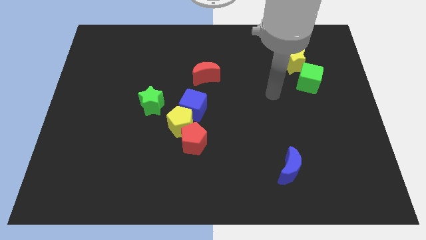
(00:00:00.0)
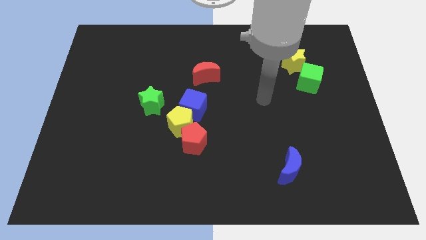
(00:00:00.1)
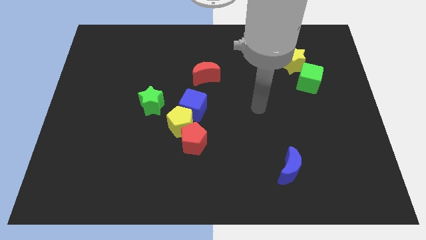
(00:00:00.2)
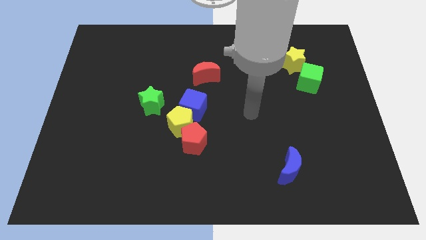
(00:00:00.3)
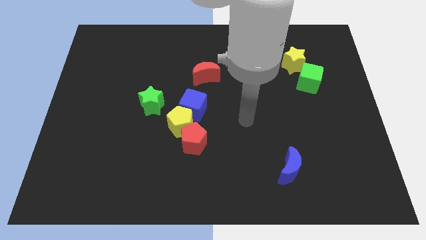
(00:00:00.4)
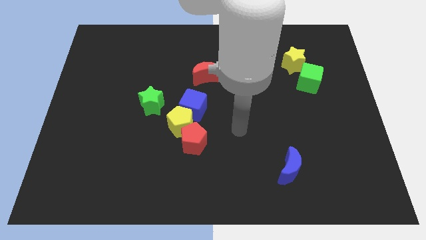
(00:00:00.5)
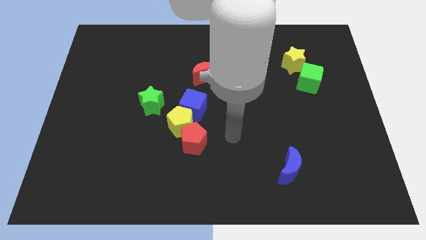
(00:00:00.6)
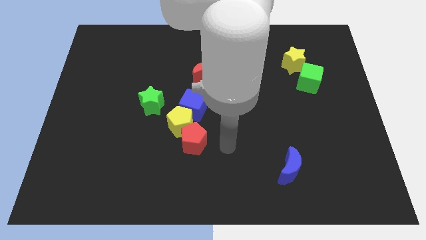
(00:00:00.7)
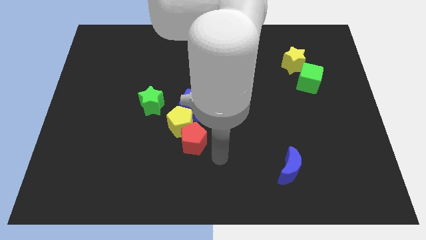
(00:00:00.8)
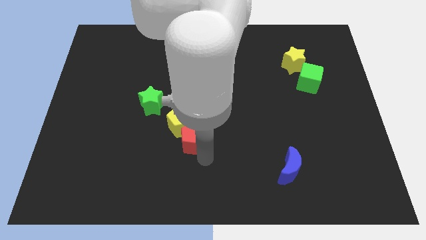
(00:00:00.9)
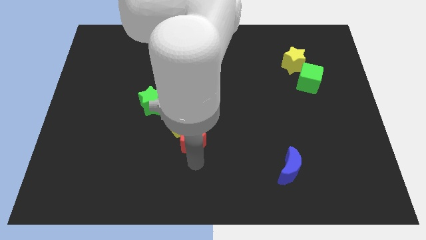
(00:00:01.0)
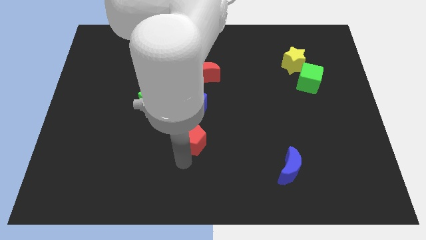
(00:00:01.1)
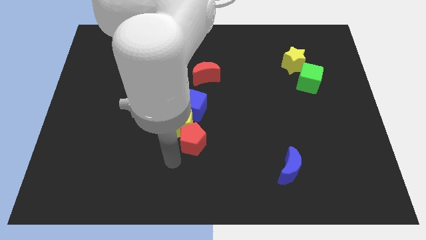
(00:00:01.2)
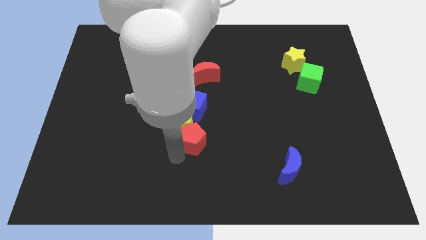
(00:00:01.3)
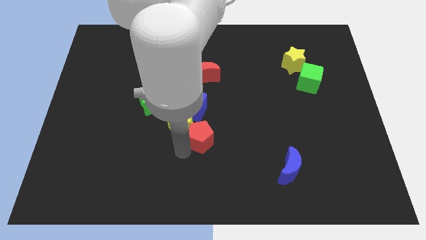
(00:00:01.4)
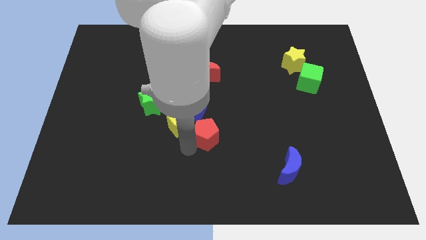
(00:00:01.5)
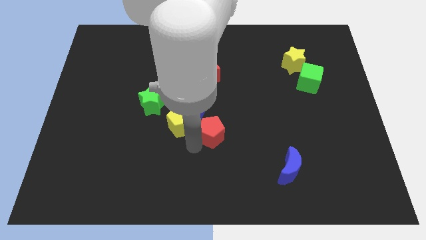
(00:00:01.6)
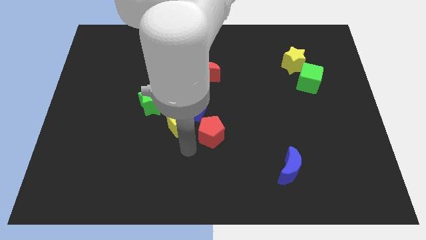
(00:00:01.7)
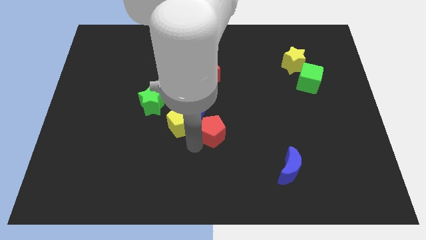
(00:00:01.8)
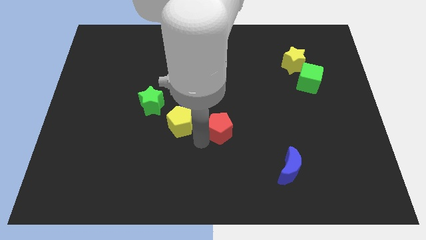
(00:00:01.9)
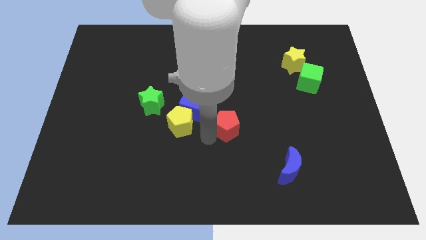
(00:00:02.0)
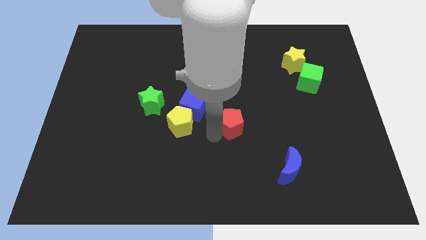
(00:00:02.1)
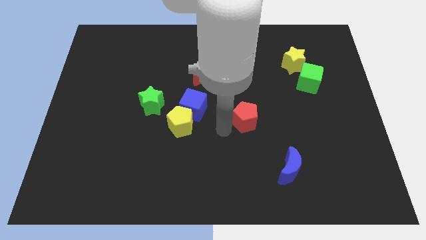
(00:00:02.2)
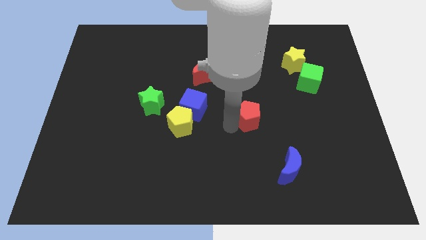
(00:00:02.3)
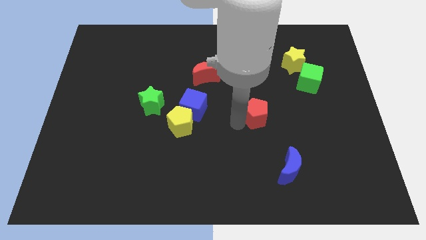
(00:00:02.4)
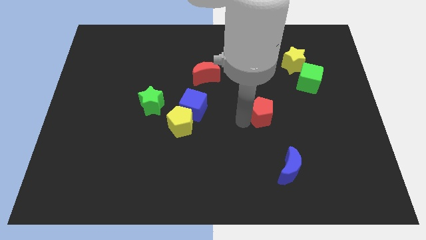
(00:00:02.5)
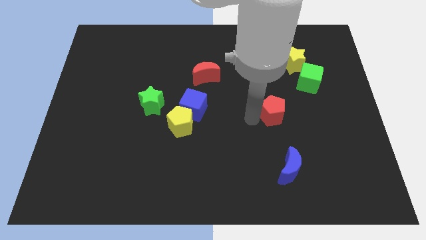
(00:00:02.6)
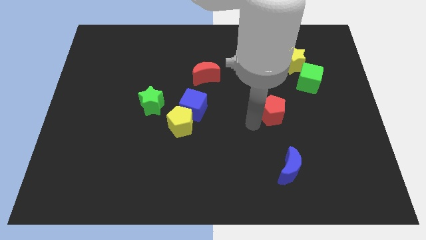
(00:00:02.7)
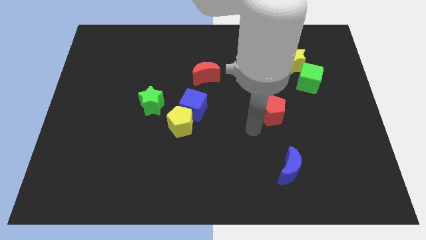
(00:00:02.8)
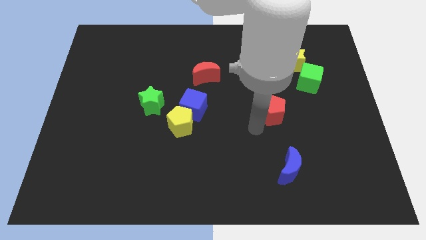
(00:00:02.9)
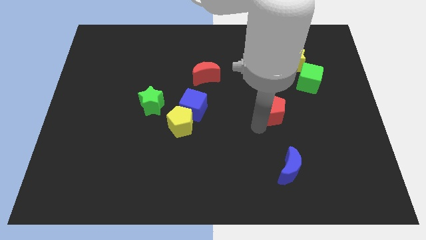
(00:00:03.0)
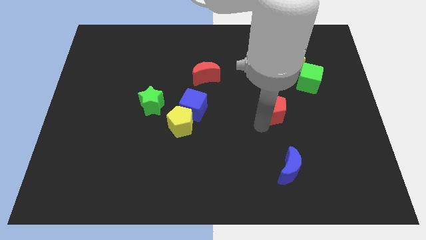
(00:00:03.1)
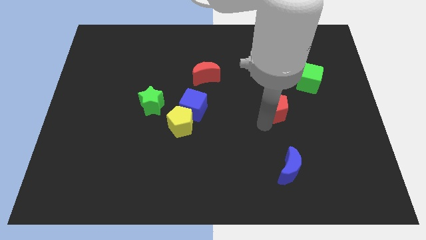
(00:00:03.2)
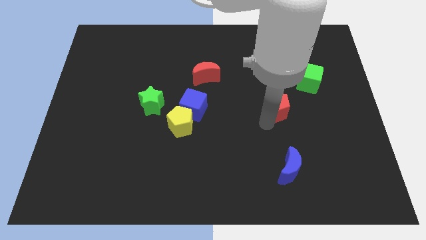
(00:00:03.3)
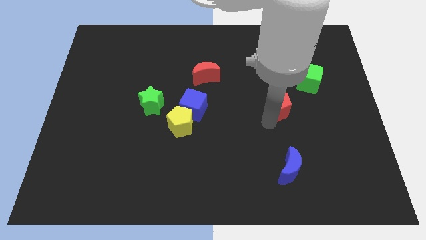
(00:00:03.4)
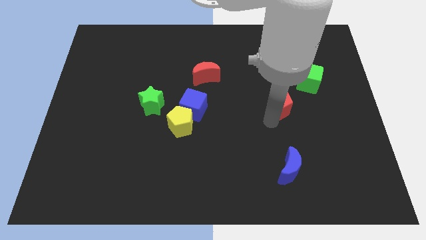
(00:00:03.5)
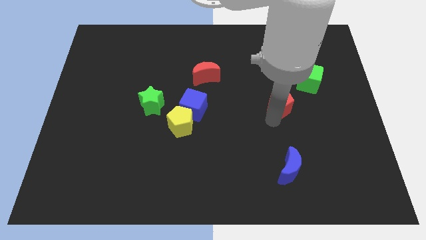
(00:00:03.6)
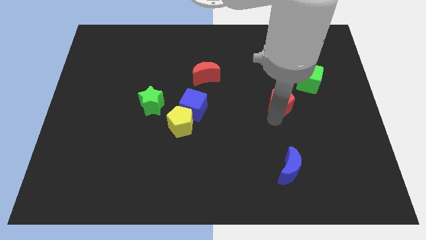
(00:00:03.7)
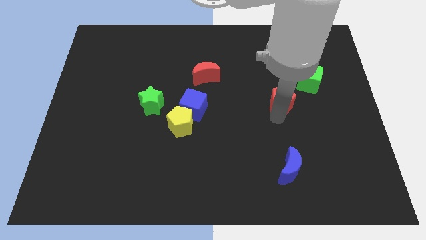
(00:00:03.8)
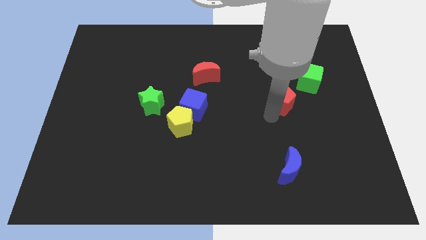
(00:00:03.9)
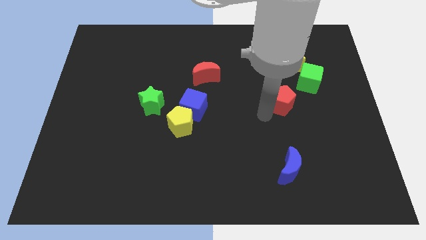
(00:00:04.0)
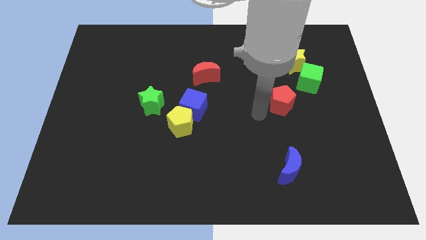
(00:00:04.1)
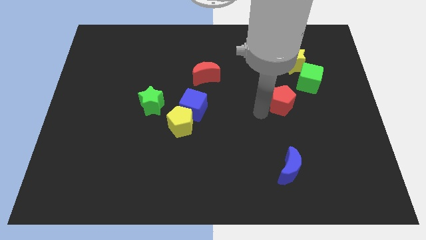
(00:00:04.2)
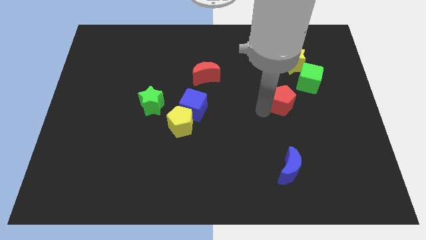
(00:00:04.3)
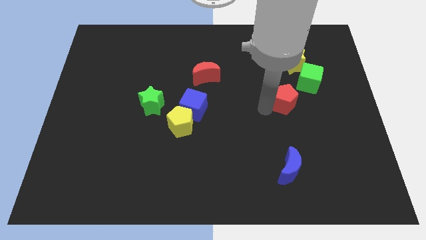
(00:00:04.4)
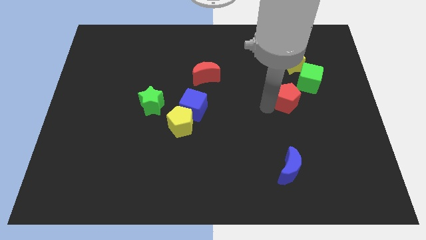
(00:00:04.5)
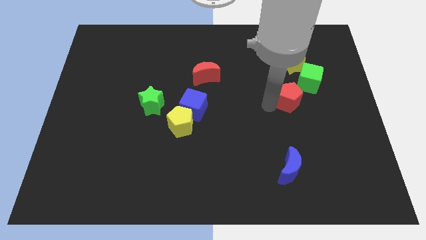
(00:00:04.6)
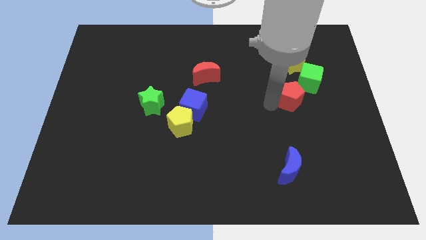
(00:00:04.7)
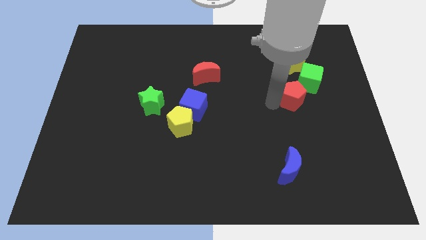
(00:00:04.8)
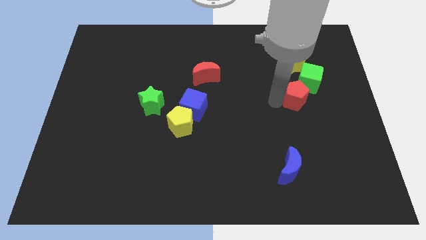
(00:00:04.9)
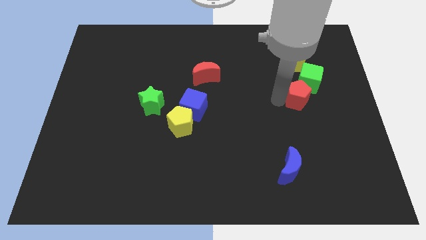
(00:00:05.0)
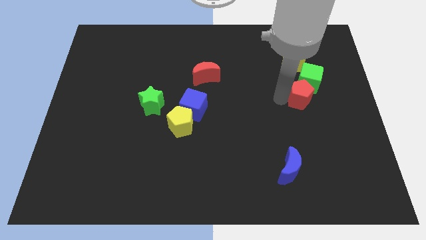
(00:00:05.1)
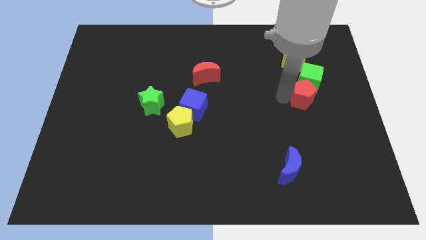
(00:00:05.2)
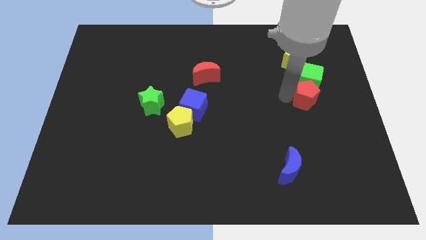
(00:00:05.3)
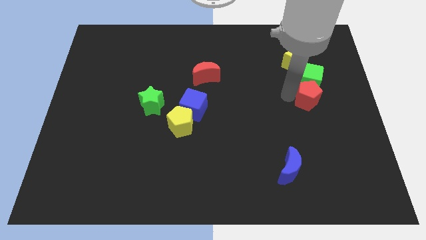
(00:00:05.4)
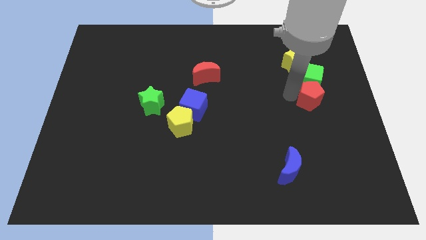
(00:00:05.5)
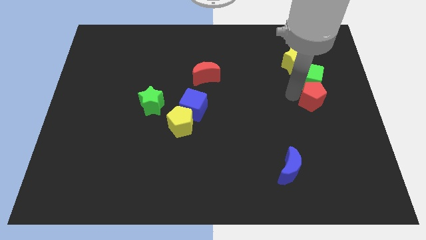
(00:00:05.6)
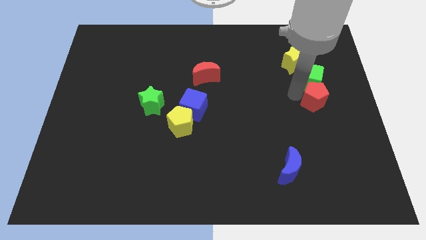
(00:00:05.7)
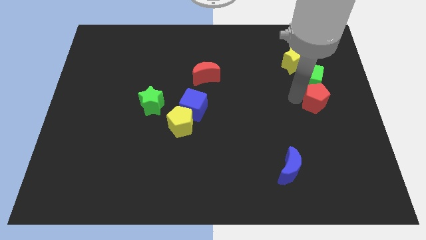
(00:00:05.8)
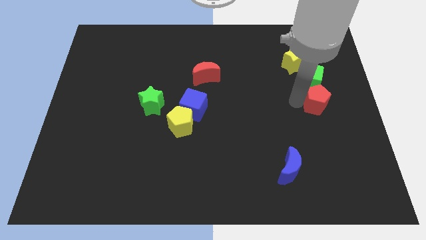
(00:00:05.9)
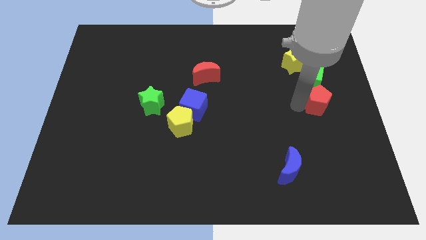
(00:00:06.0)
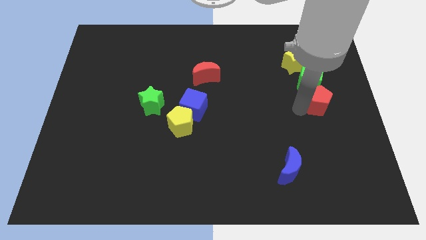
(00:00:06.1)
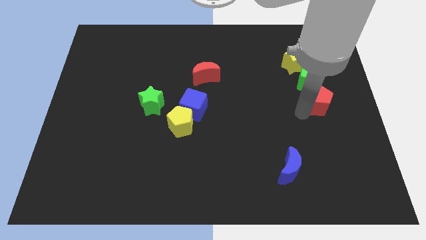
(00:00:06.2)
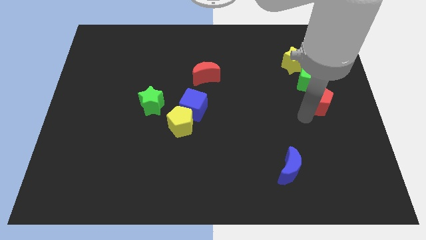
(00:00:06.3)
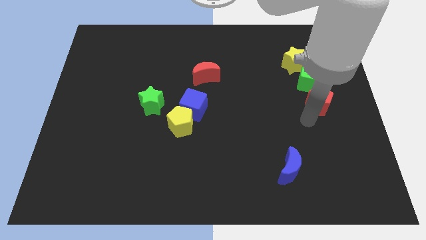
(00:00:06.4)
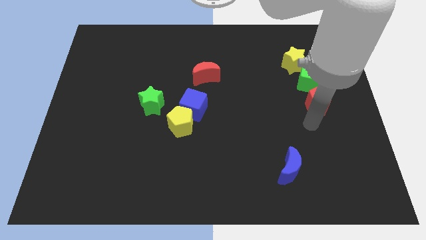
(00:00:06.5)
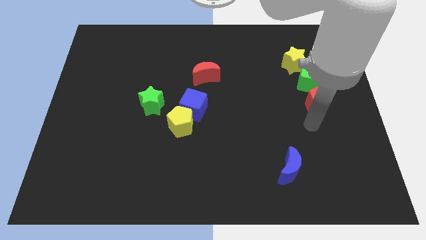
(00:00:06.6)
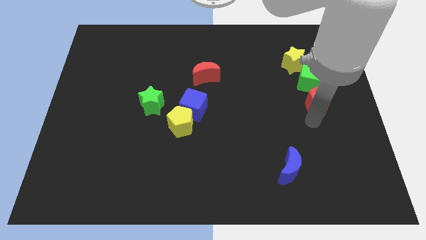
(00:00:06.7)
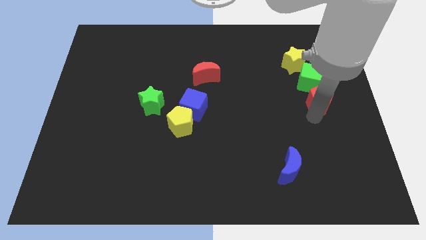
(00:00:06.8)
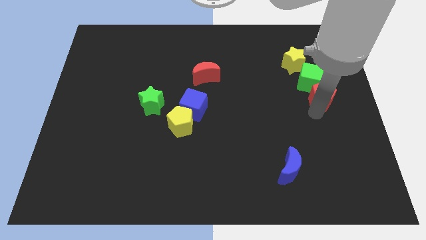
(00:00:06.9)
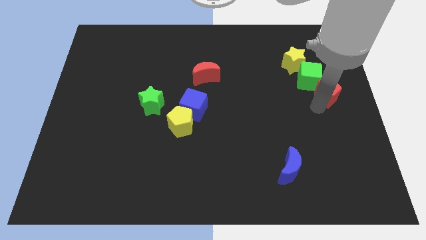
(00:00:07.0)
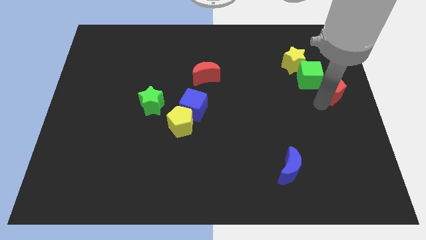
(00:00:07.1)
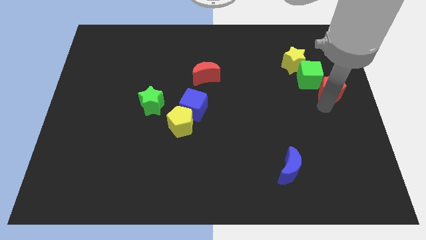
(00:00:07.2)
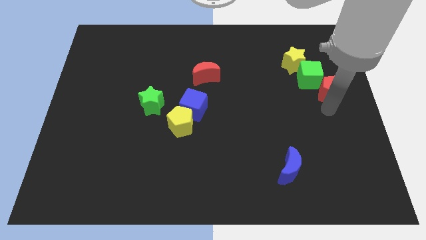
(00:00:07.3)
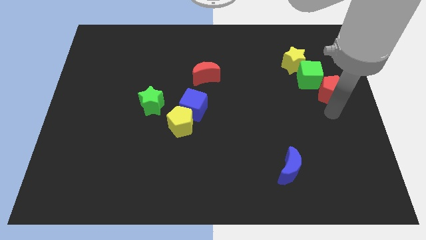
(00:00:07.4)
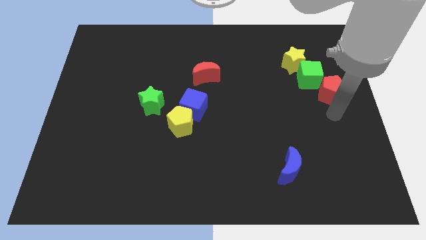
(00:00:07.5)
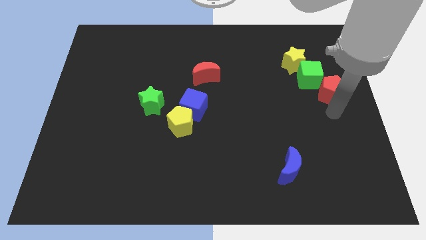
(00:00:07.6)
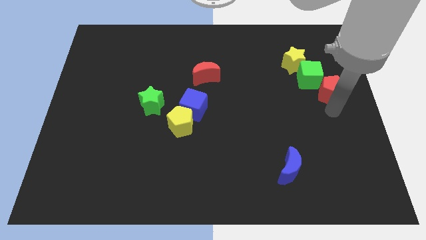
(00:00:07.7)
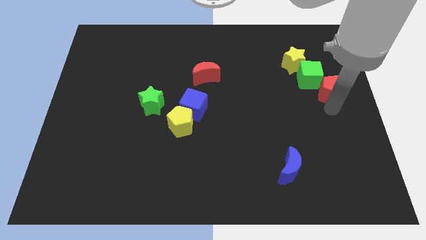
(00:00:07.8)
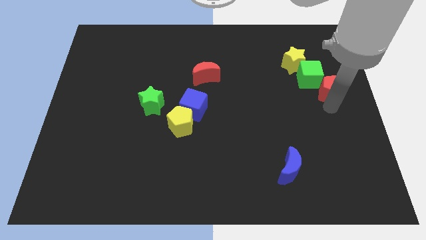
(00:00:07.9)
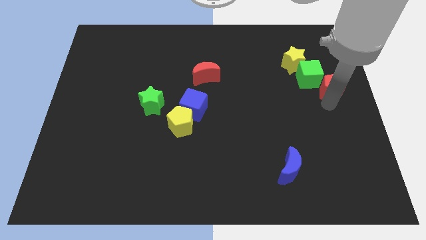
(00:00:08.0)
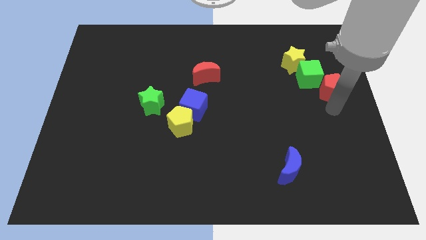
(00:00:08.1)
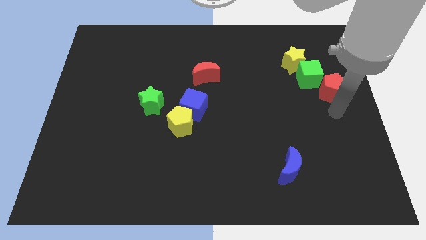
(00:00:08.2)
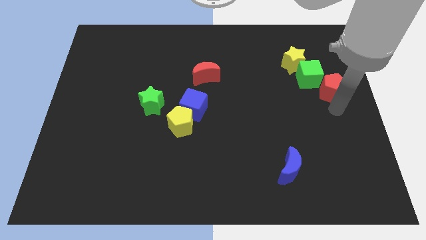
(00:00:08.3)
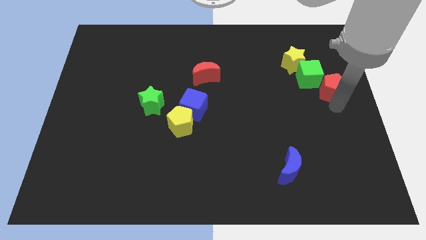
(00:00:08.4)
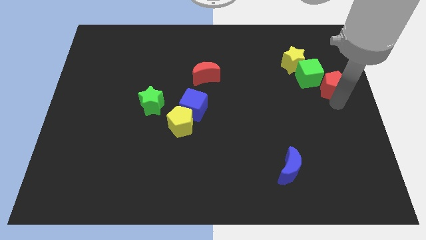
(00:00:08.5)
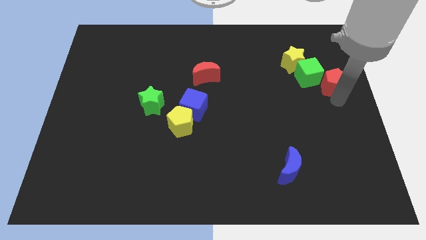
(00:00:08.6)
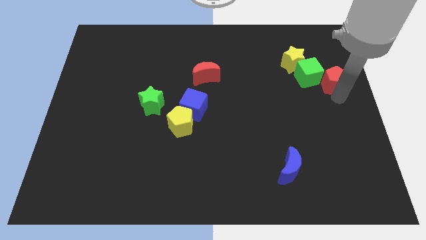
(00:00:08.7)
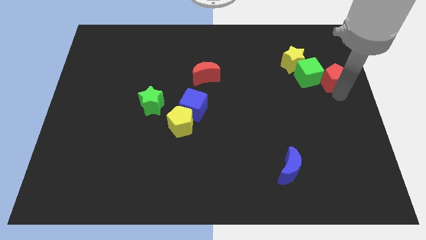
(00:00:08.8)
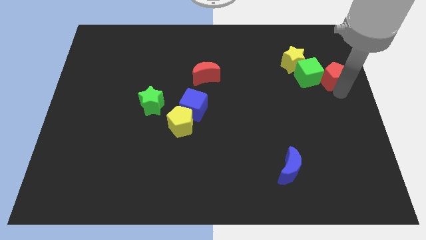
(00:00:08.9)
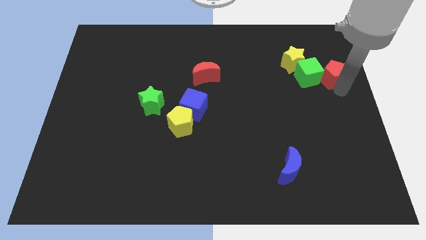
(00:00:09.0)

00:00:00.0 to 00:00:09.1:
slide the red pentagon to the top right of the green cube
